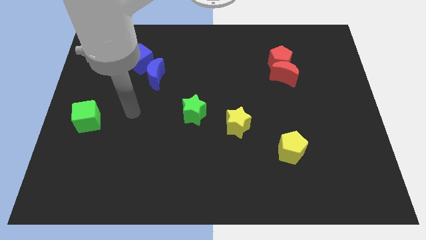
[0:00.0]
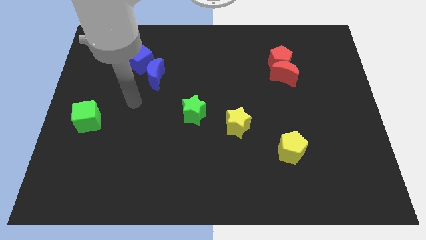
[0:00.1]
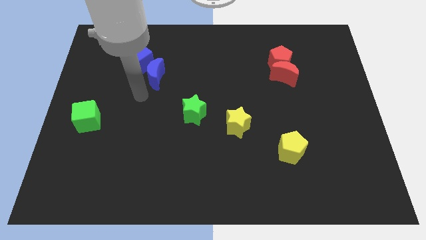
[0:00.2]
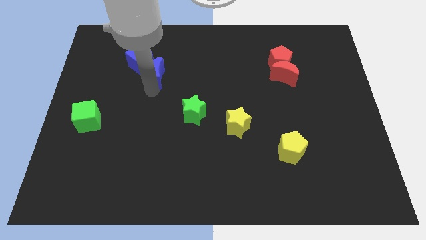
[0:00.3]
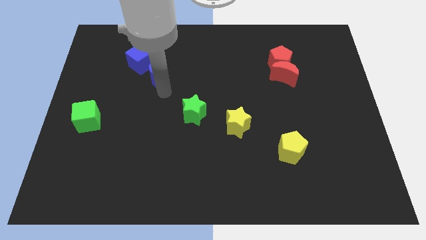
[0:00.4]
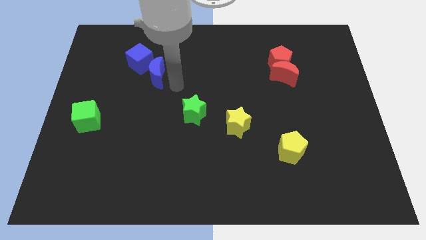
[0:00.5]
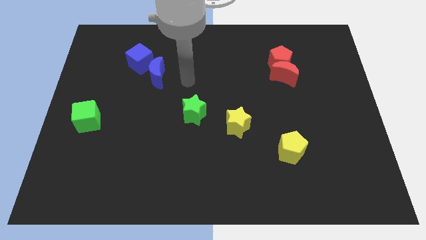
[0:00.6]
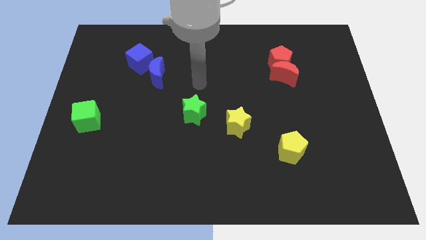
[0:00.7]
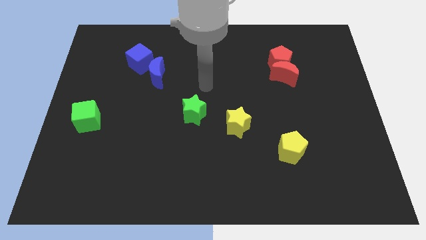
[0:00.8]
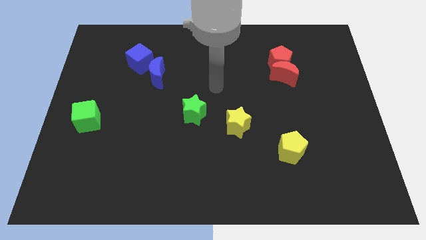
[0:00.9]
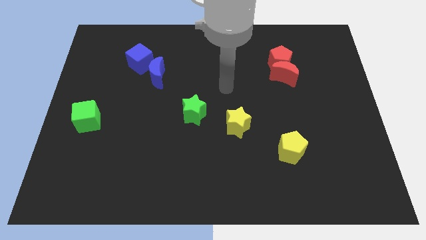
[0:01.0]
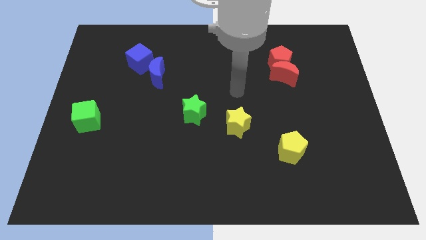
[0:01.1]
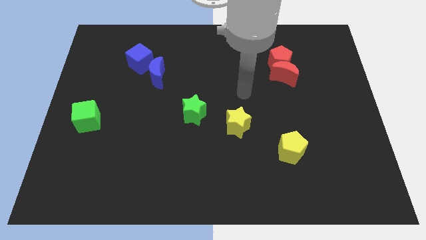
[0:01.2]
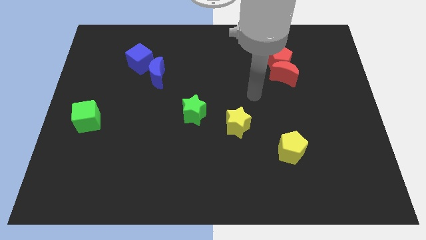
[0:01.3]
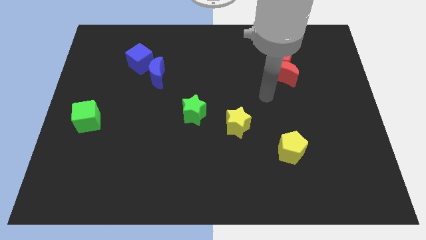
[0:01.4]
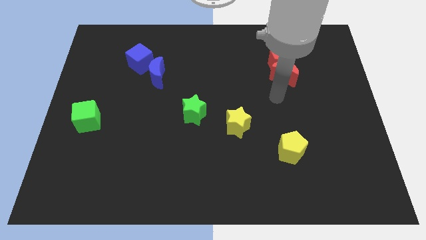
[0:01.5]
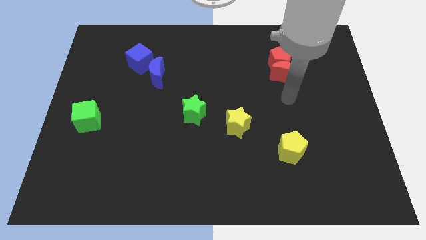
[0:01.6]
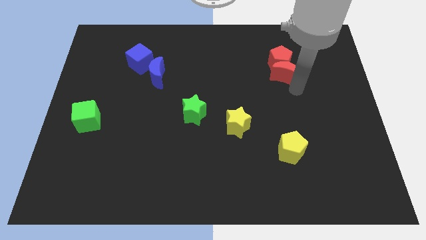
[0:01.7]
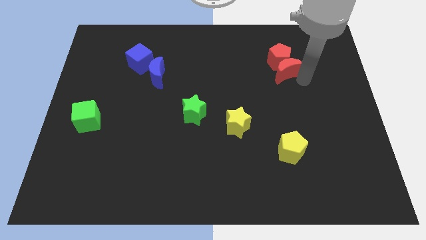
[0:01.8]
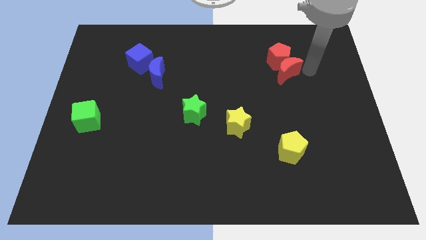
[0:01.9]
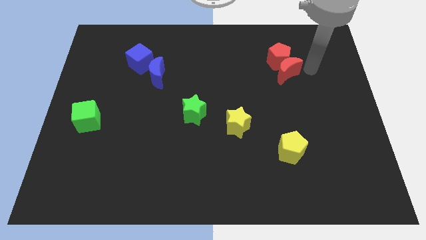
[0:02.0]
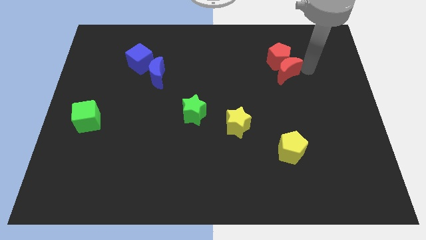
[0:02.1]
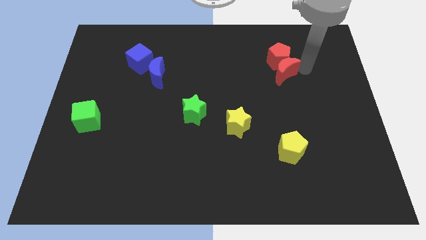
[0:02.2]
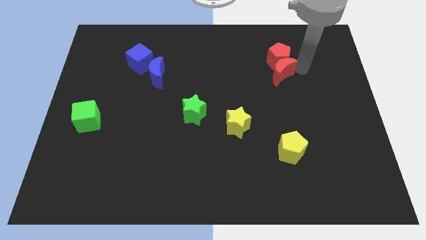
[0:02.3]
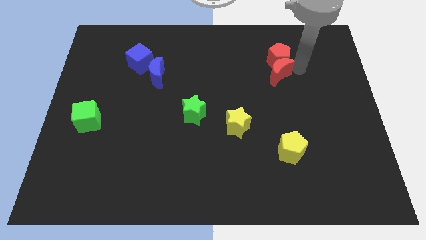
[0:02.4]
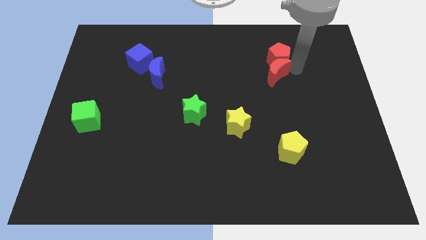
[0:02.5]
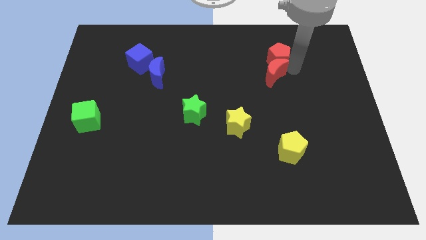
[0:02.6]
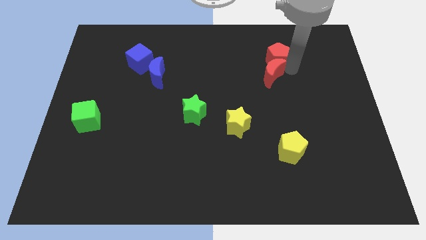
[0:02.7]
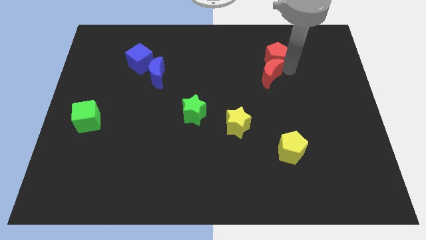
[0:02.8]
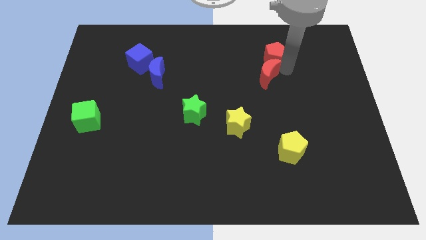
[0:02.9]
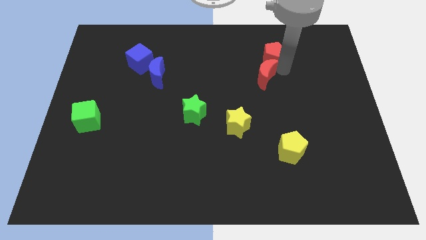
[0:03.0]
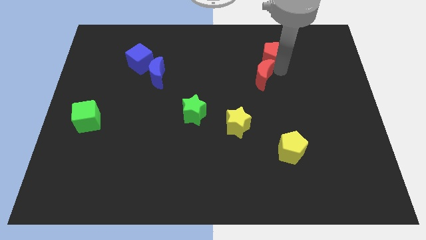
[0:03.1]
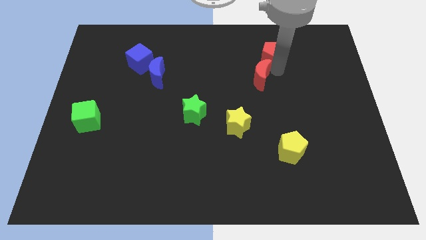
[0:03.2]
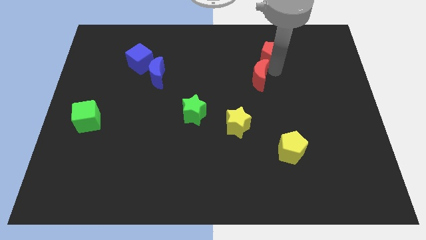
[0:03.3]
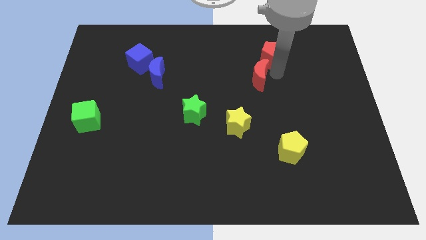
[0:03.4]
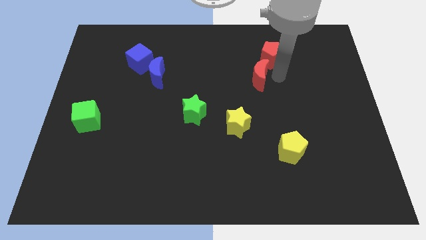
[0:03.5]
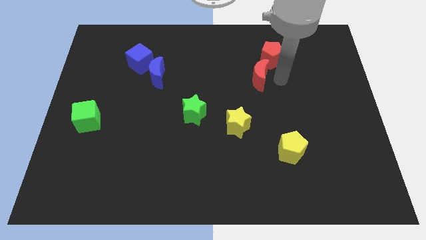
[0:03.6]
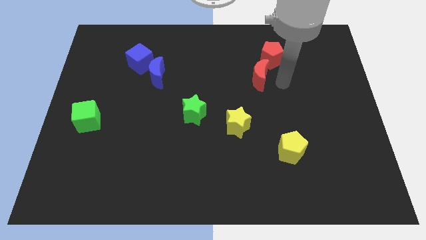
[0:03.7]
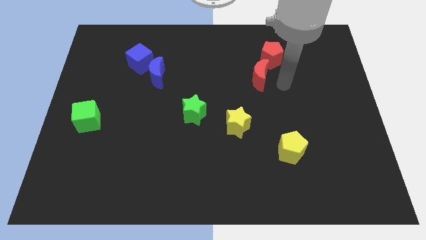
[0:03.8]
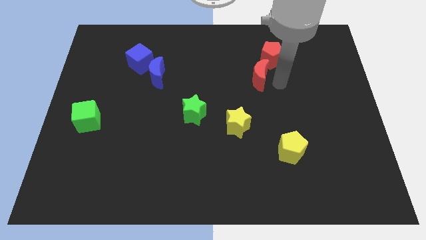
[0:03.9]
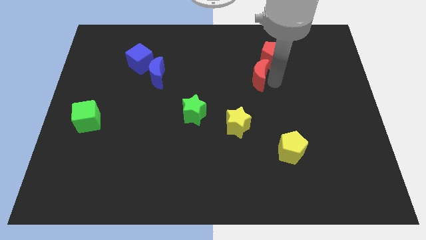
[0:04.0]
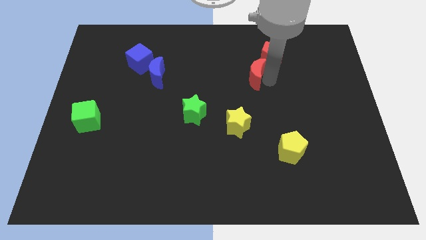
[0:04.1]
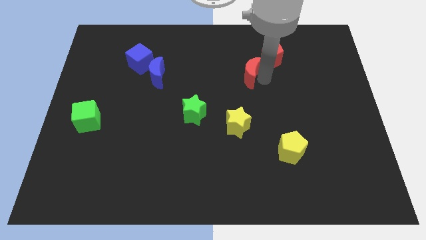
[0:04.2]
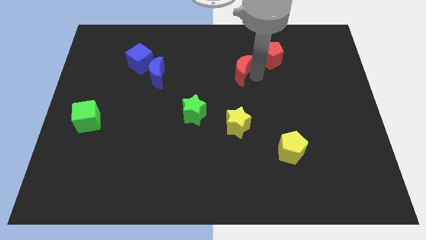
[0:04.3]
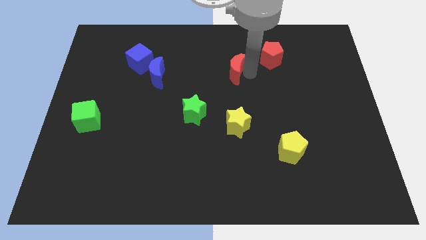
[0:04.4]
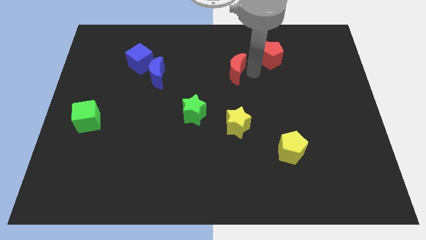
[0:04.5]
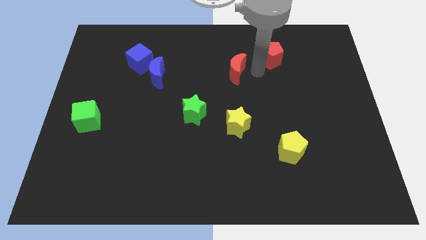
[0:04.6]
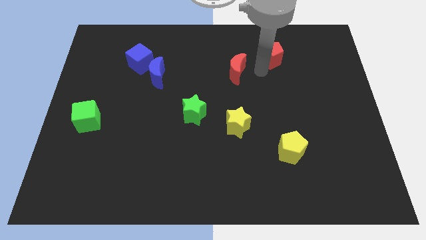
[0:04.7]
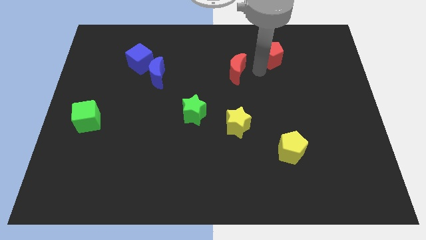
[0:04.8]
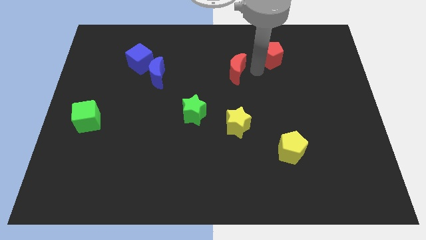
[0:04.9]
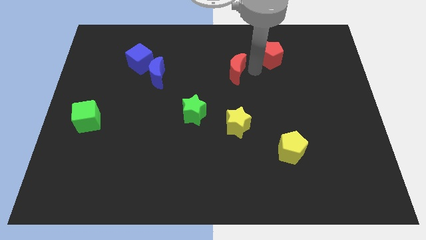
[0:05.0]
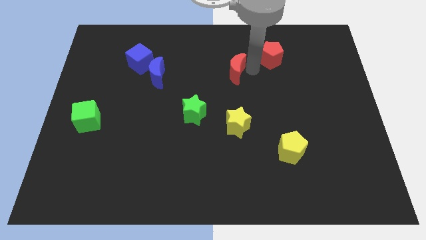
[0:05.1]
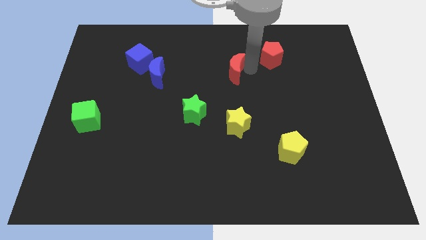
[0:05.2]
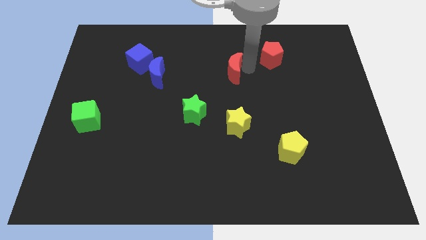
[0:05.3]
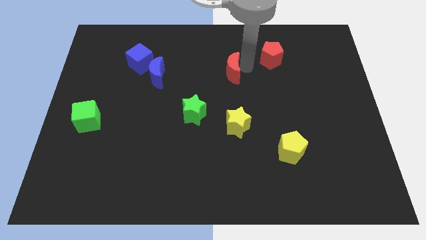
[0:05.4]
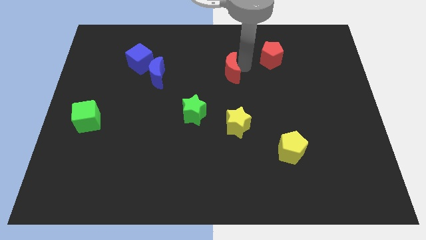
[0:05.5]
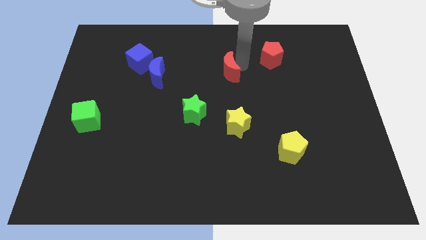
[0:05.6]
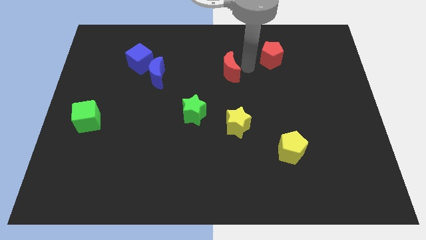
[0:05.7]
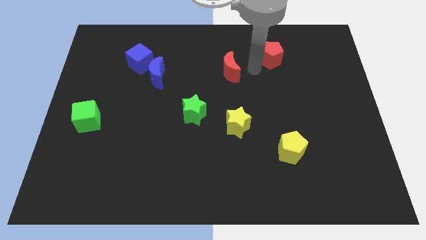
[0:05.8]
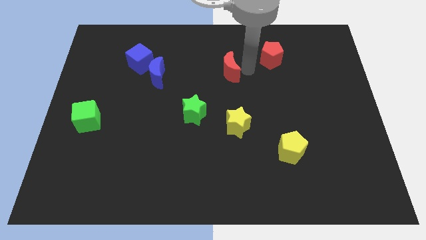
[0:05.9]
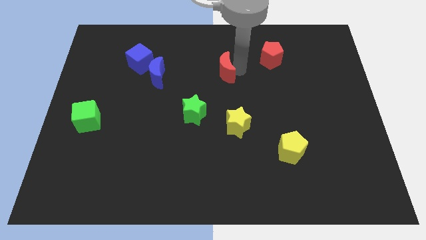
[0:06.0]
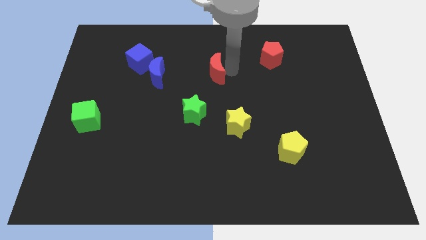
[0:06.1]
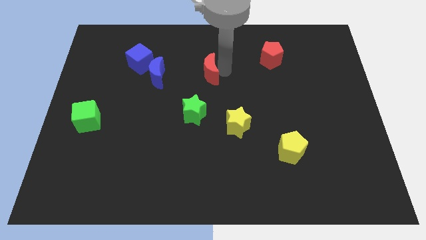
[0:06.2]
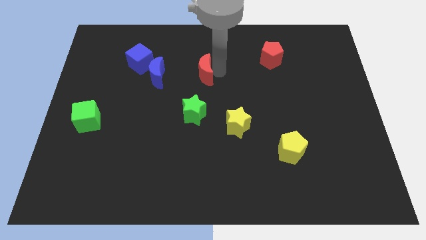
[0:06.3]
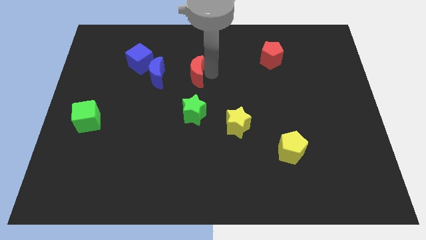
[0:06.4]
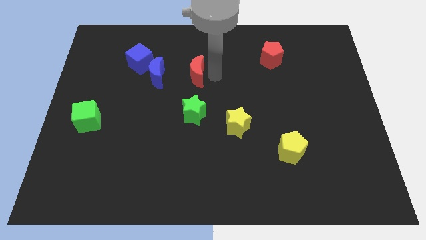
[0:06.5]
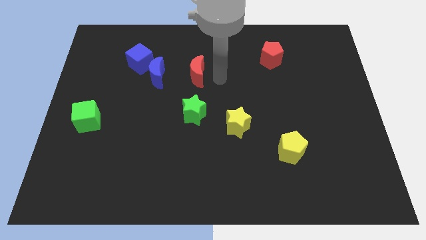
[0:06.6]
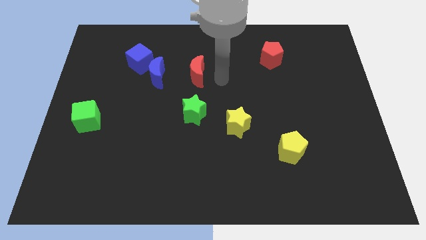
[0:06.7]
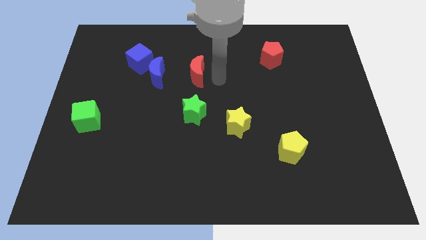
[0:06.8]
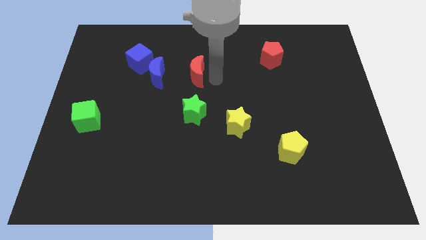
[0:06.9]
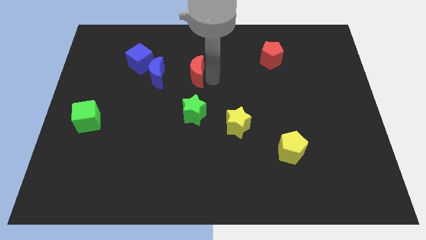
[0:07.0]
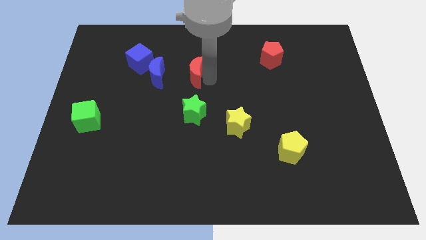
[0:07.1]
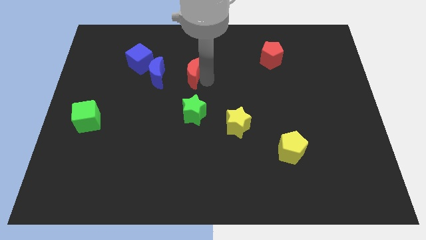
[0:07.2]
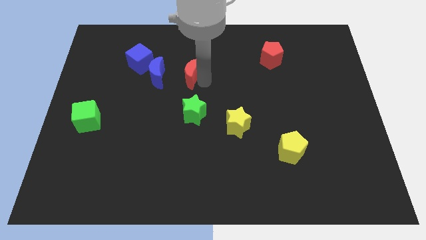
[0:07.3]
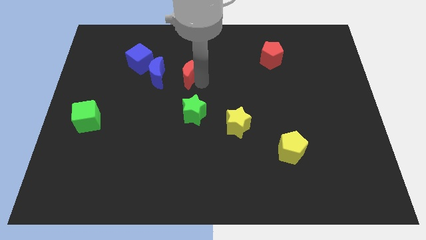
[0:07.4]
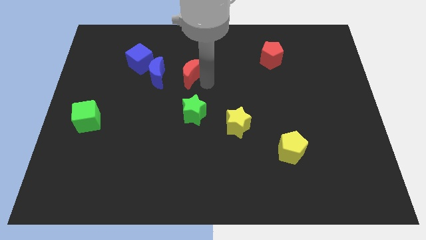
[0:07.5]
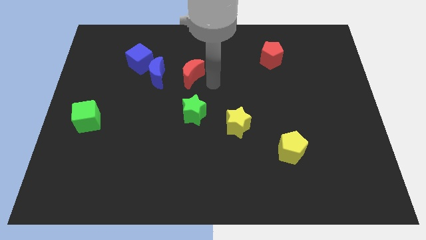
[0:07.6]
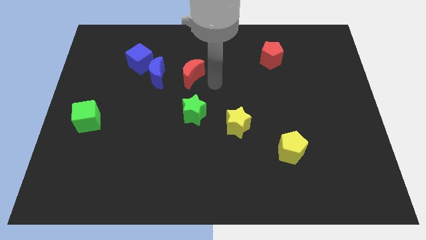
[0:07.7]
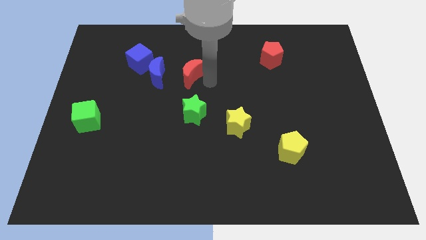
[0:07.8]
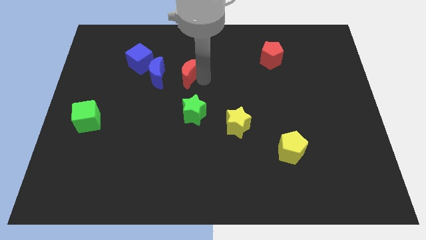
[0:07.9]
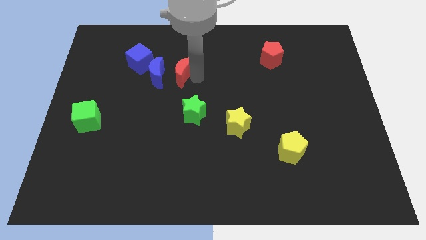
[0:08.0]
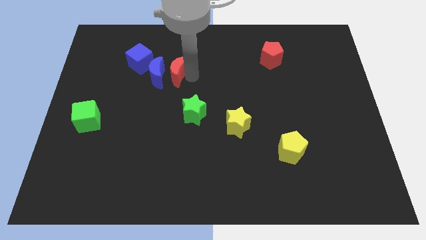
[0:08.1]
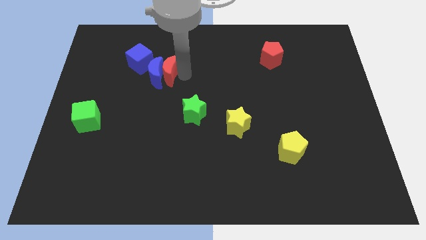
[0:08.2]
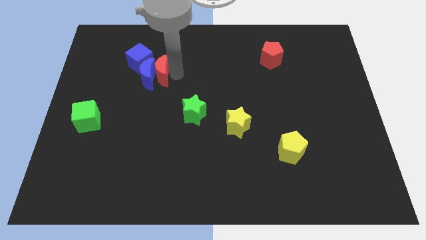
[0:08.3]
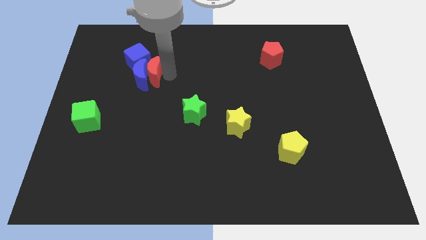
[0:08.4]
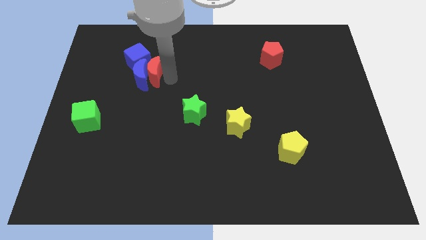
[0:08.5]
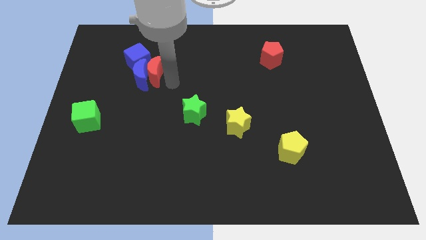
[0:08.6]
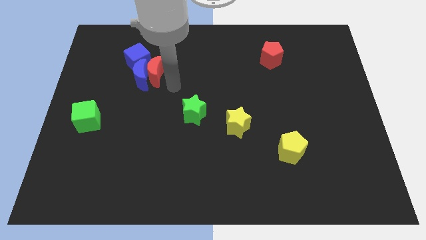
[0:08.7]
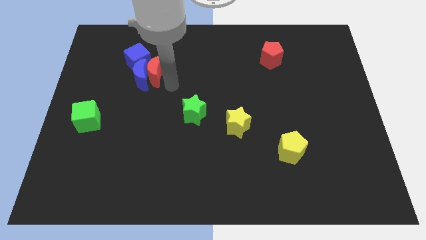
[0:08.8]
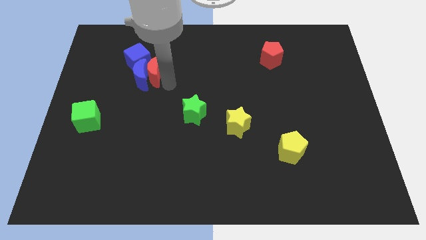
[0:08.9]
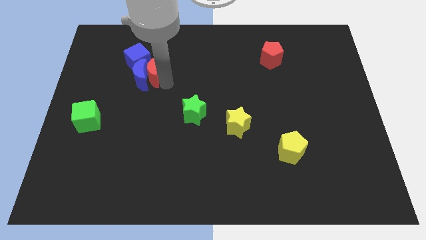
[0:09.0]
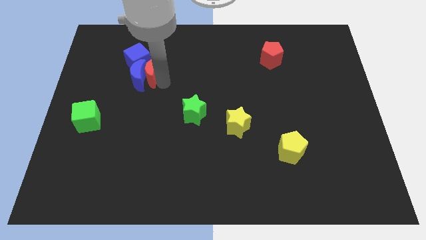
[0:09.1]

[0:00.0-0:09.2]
put the red moon to the blue cube
